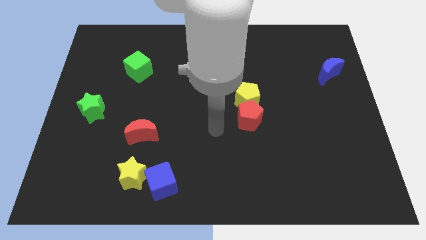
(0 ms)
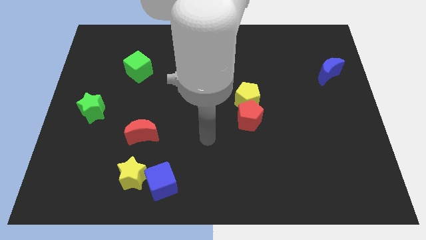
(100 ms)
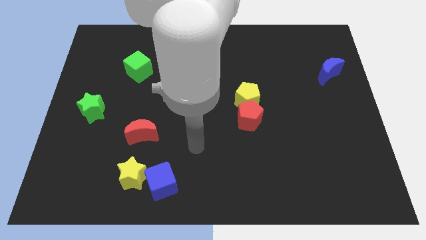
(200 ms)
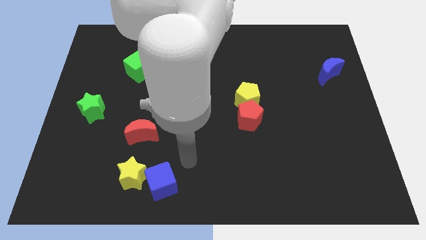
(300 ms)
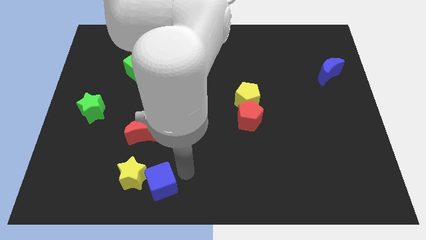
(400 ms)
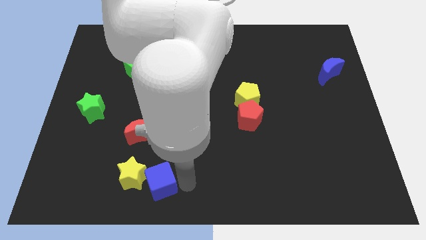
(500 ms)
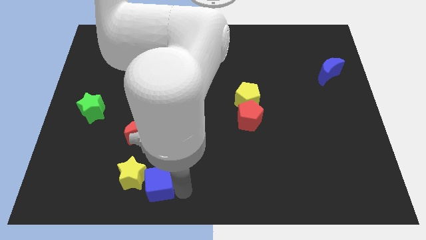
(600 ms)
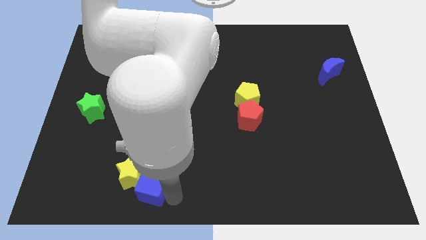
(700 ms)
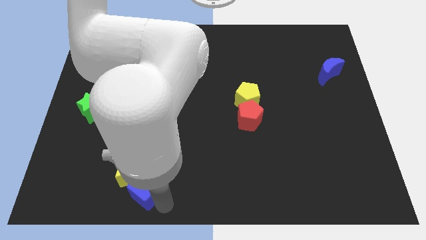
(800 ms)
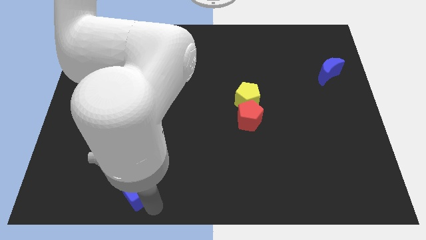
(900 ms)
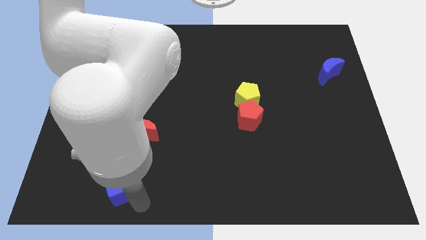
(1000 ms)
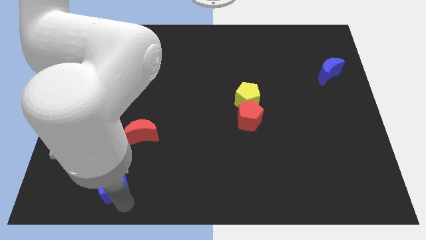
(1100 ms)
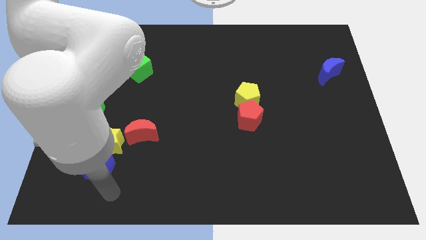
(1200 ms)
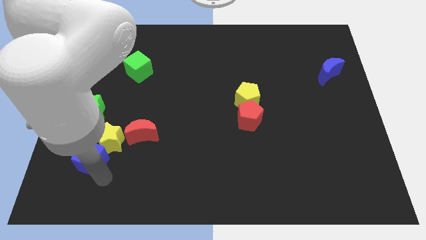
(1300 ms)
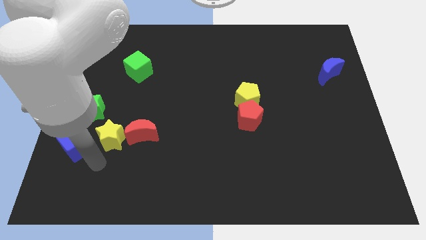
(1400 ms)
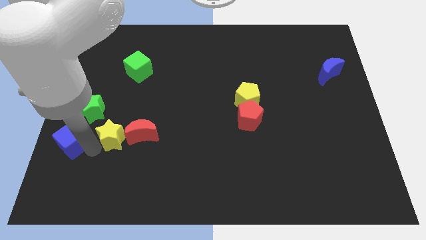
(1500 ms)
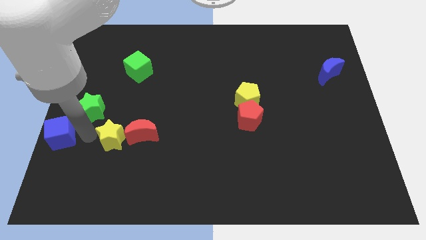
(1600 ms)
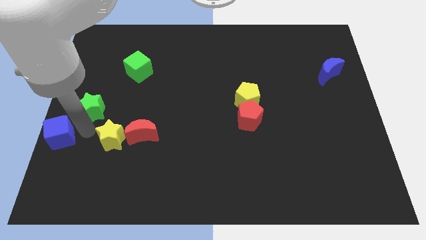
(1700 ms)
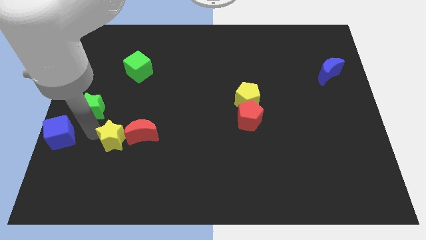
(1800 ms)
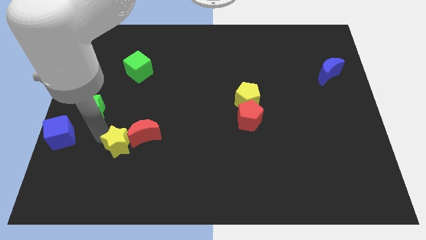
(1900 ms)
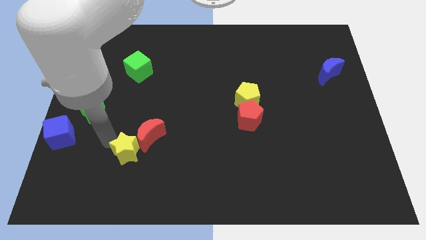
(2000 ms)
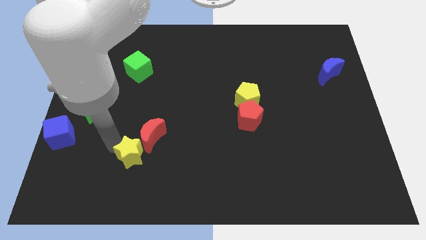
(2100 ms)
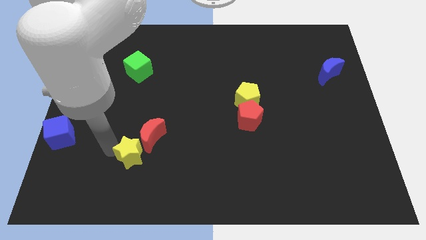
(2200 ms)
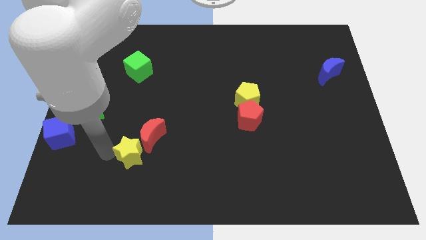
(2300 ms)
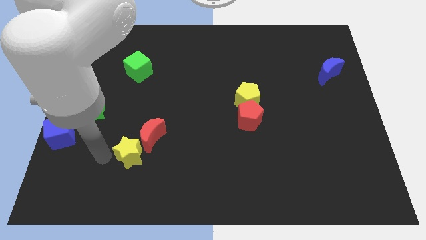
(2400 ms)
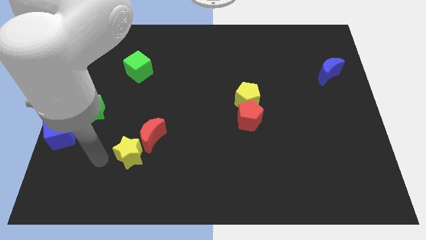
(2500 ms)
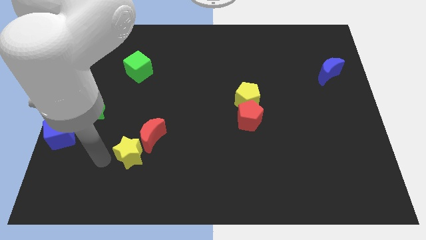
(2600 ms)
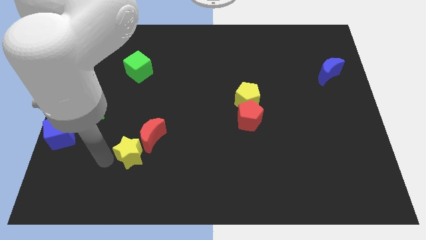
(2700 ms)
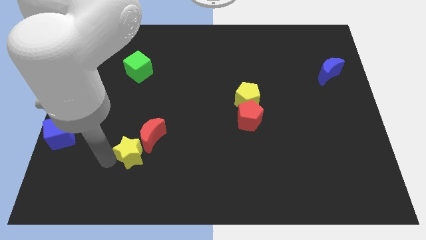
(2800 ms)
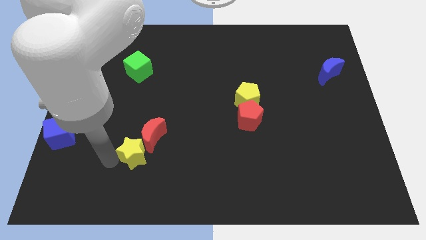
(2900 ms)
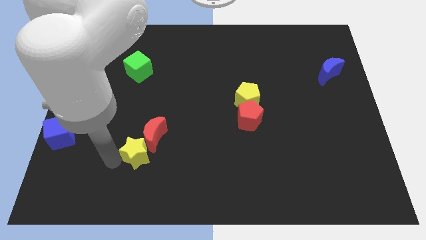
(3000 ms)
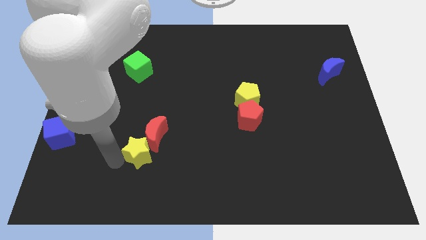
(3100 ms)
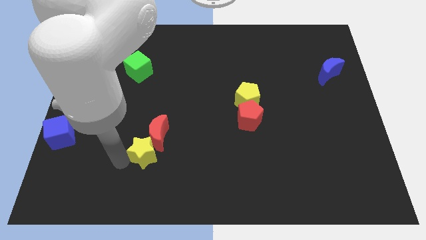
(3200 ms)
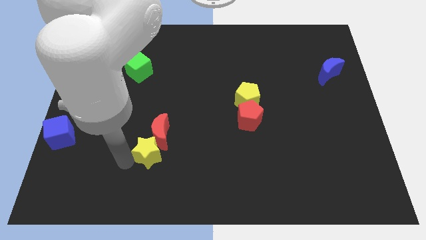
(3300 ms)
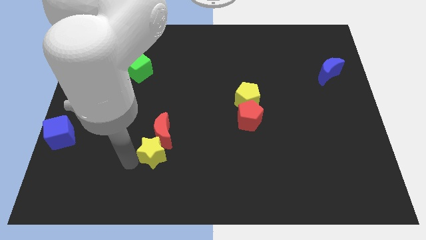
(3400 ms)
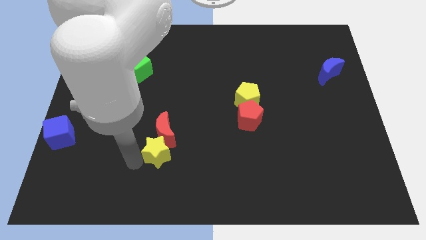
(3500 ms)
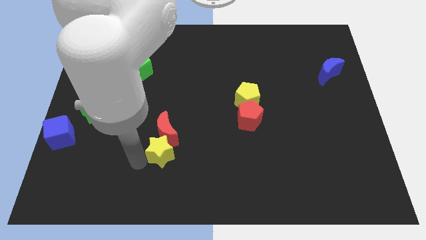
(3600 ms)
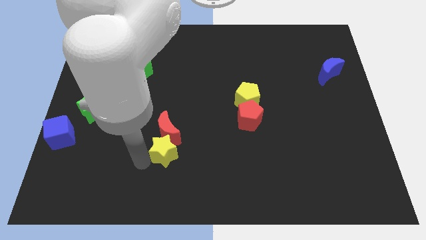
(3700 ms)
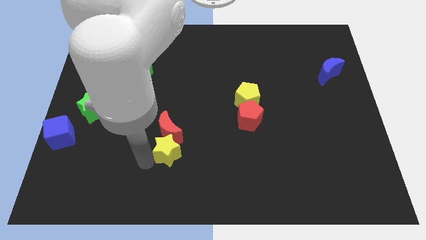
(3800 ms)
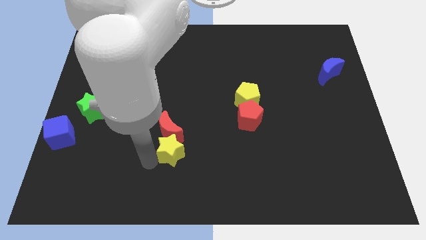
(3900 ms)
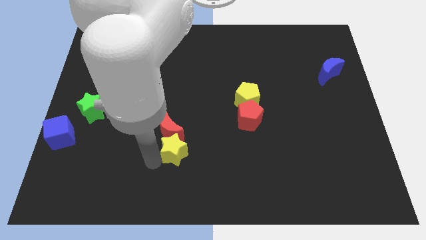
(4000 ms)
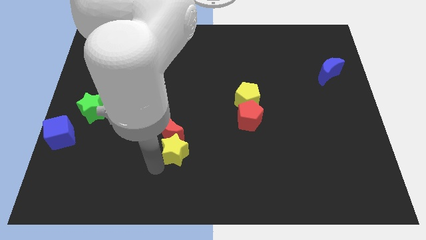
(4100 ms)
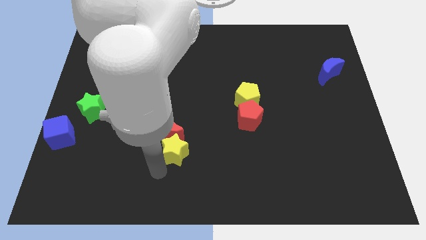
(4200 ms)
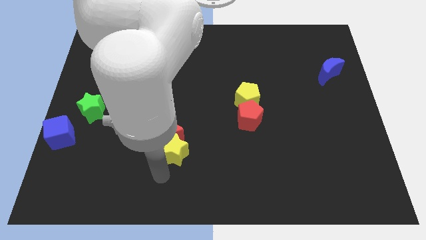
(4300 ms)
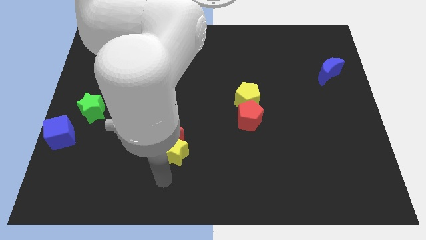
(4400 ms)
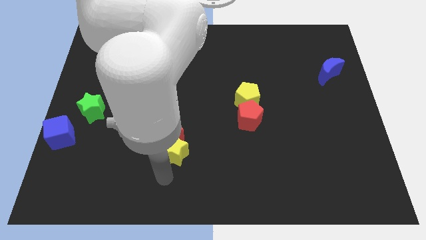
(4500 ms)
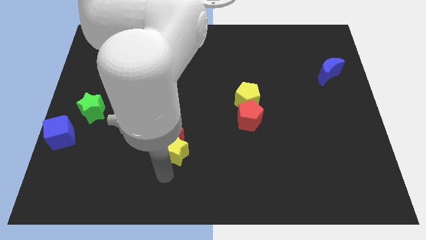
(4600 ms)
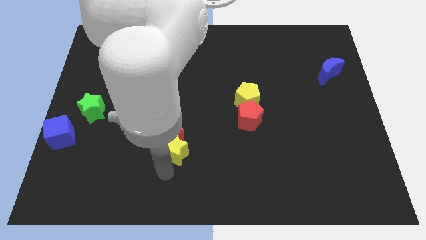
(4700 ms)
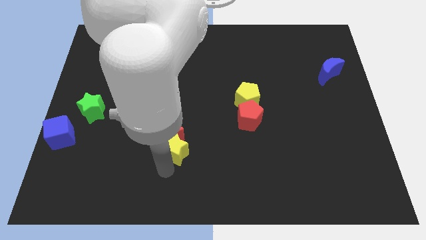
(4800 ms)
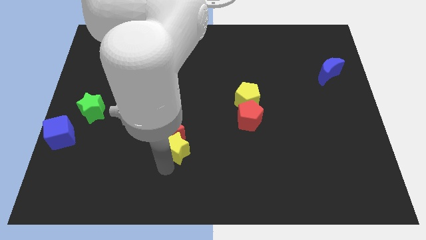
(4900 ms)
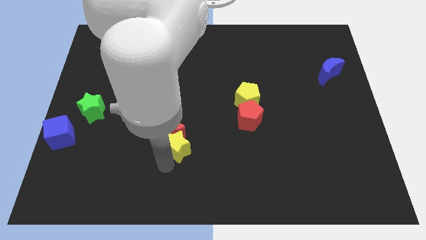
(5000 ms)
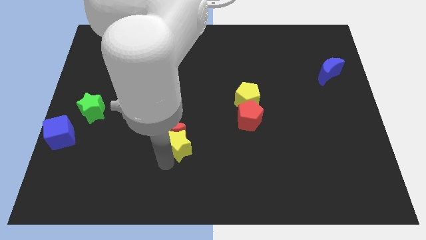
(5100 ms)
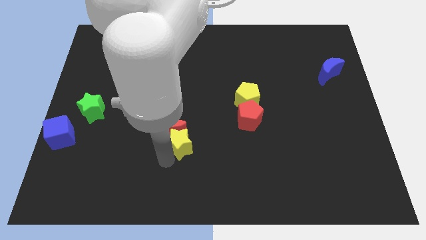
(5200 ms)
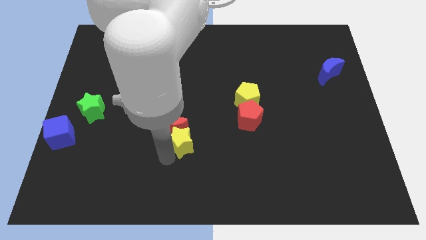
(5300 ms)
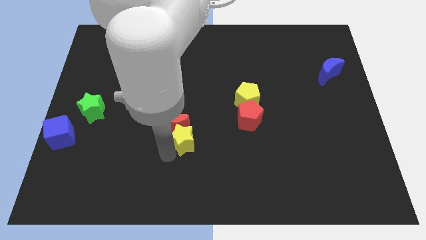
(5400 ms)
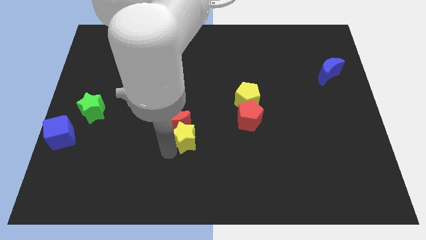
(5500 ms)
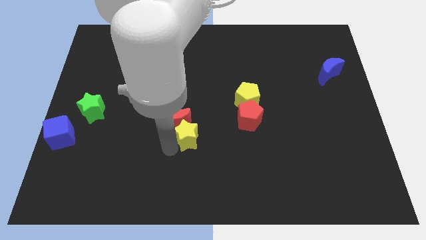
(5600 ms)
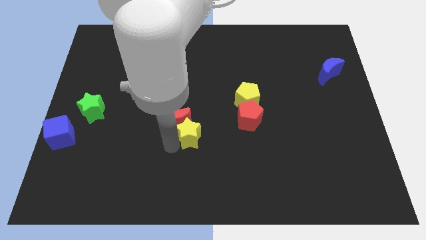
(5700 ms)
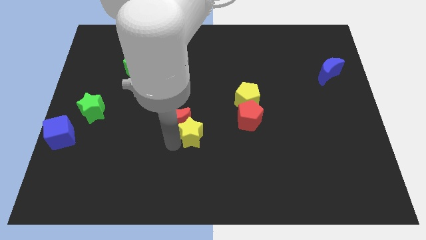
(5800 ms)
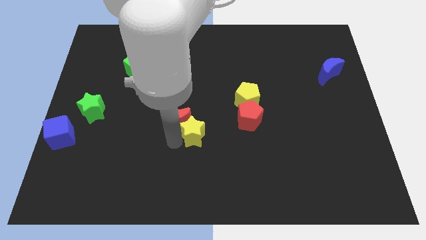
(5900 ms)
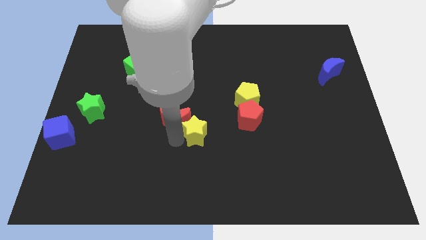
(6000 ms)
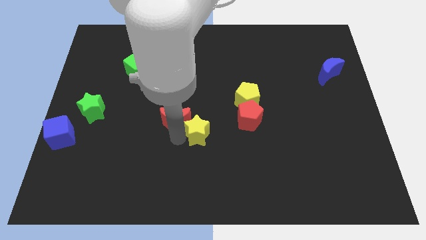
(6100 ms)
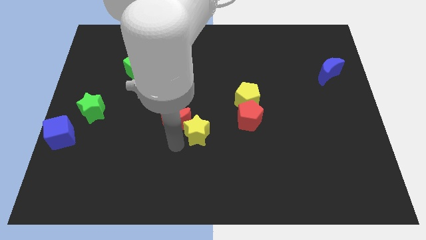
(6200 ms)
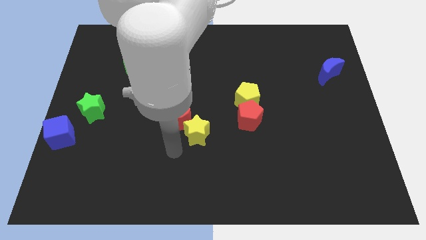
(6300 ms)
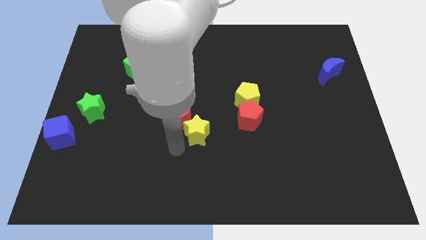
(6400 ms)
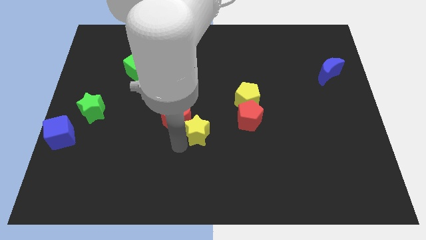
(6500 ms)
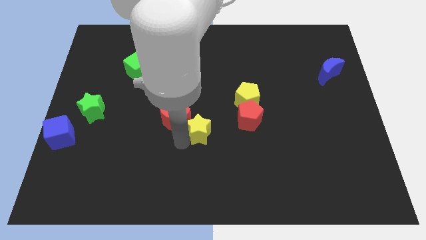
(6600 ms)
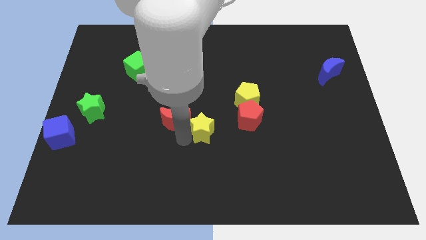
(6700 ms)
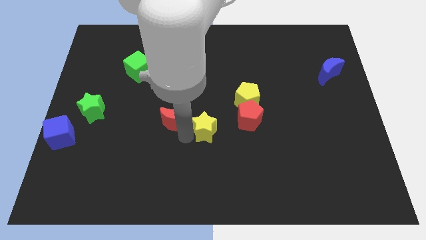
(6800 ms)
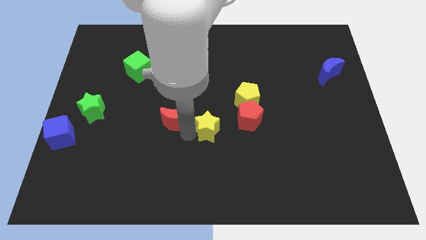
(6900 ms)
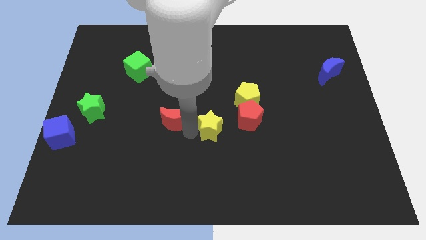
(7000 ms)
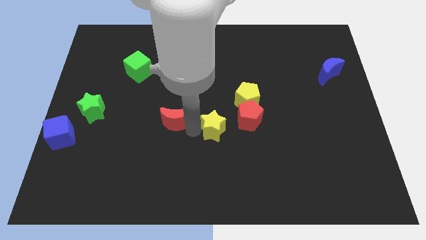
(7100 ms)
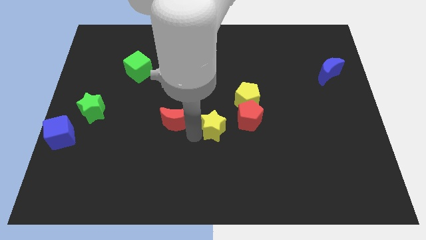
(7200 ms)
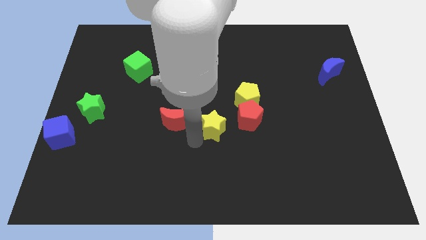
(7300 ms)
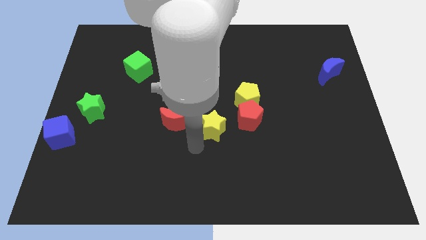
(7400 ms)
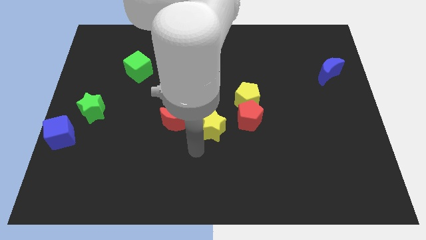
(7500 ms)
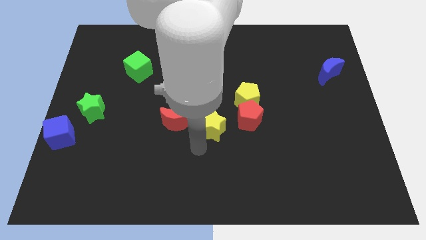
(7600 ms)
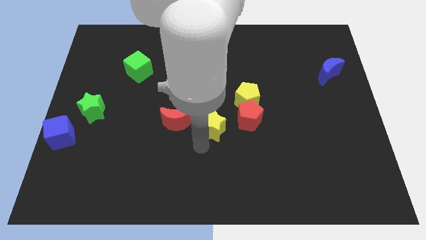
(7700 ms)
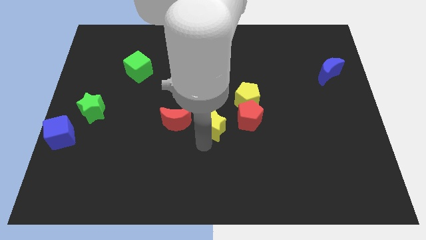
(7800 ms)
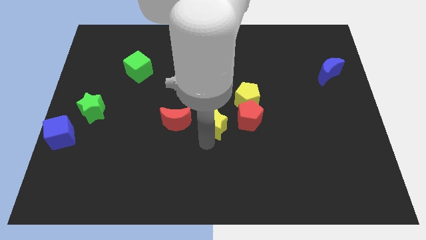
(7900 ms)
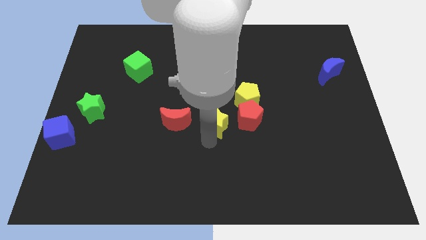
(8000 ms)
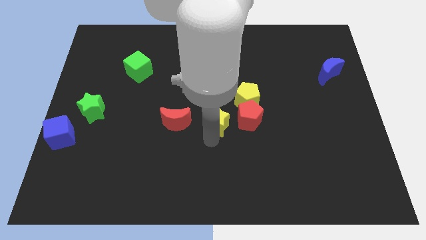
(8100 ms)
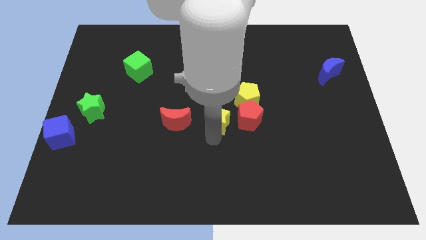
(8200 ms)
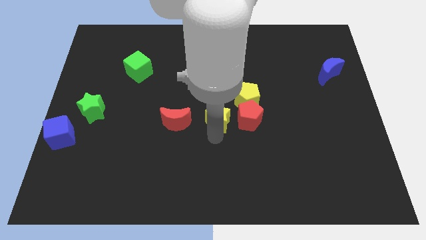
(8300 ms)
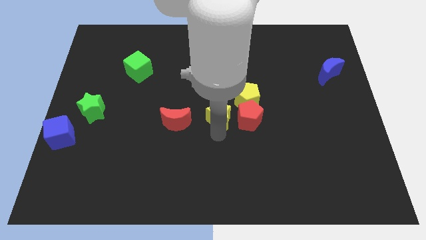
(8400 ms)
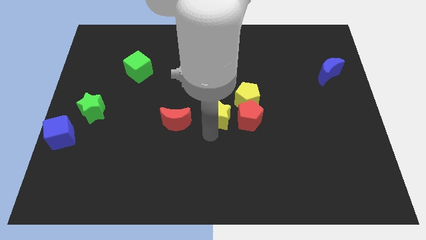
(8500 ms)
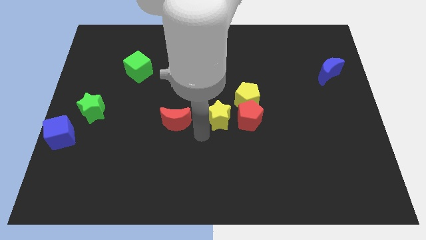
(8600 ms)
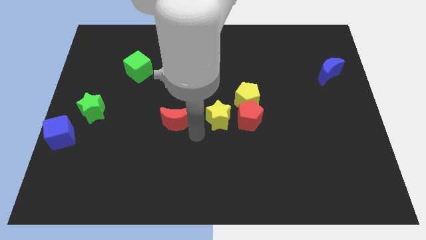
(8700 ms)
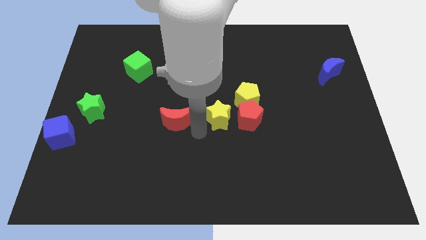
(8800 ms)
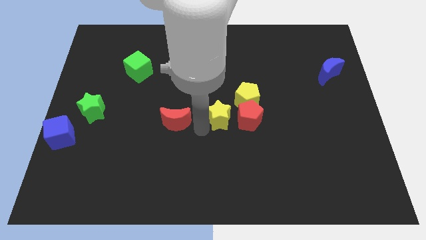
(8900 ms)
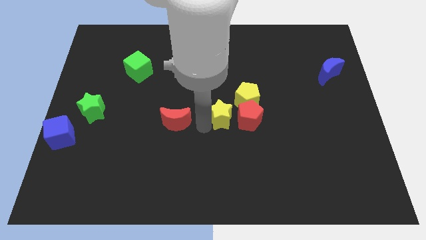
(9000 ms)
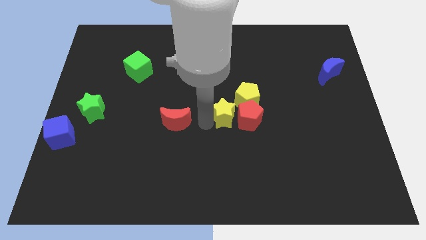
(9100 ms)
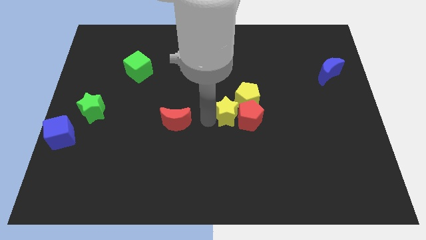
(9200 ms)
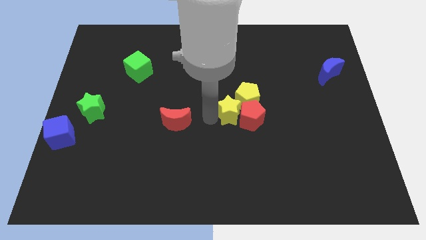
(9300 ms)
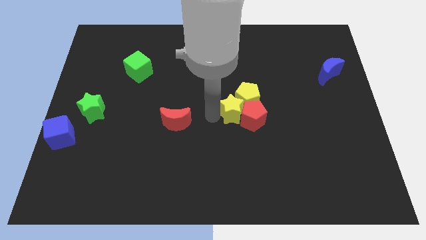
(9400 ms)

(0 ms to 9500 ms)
push the yellow star close to the yellow pentagon
